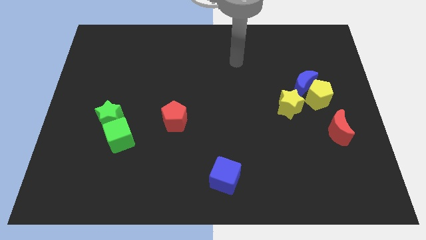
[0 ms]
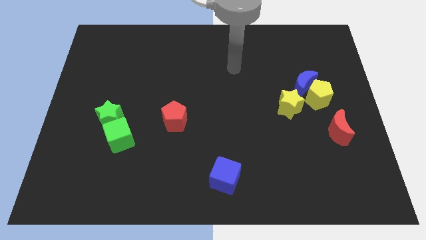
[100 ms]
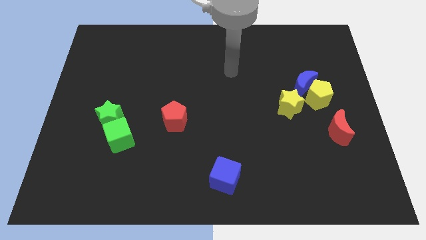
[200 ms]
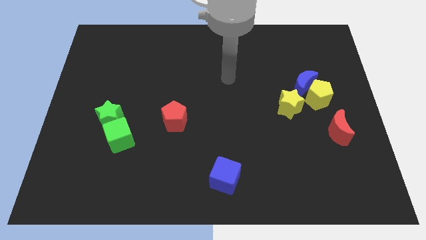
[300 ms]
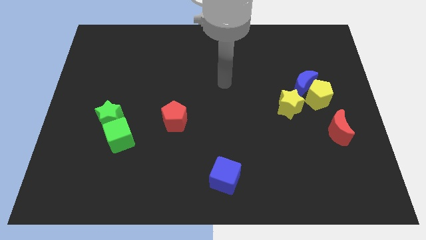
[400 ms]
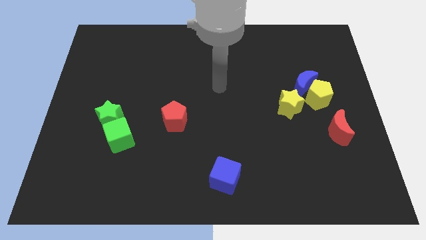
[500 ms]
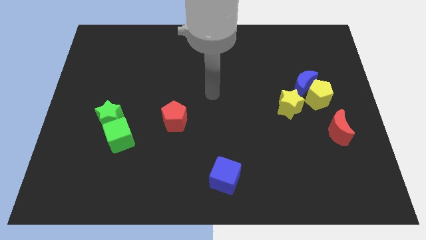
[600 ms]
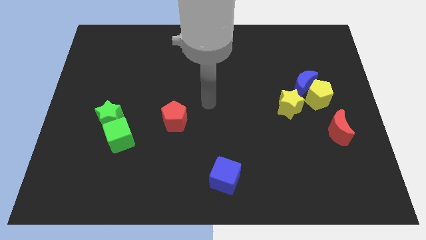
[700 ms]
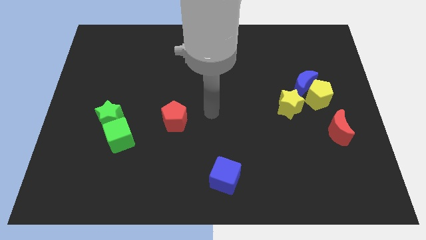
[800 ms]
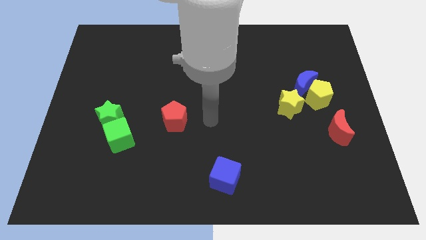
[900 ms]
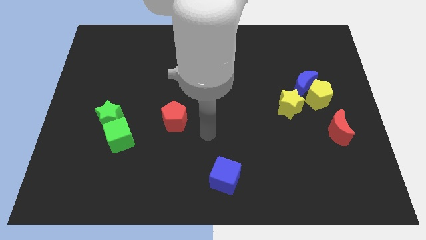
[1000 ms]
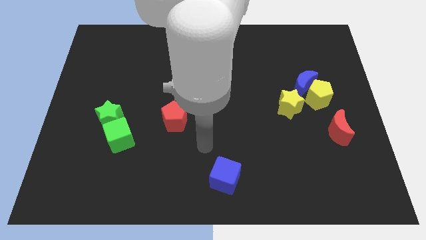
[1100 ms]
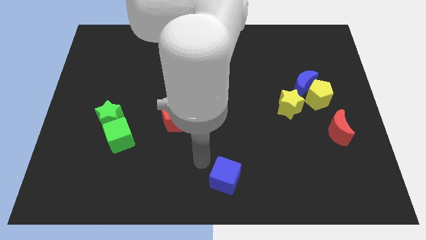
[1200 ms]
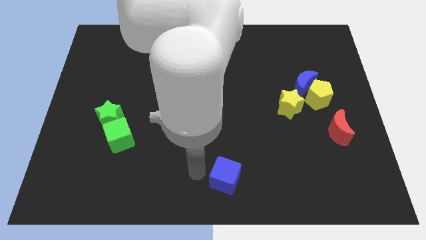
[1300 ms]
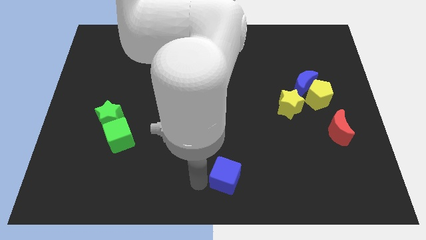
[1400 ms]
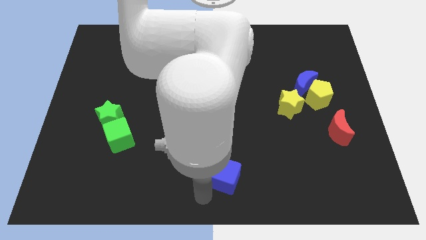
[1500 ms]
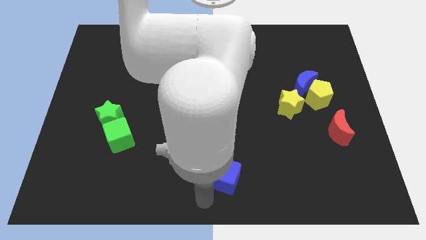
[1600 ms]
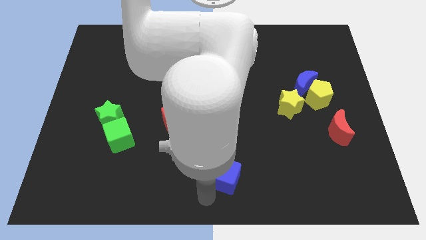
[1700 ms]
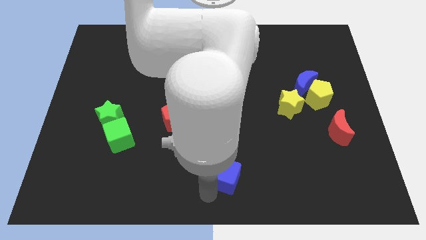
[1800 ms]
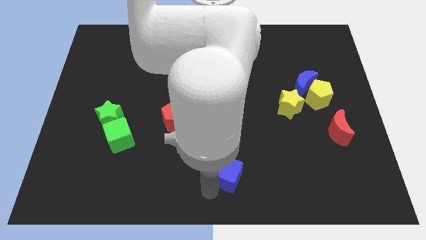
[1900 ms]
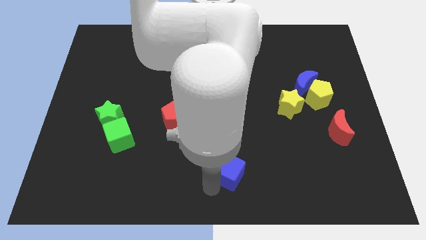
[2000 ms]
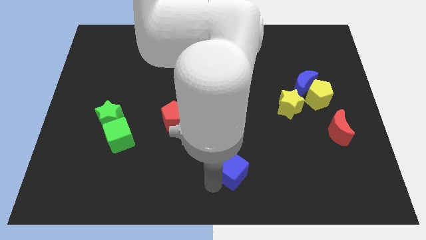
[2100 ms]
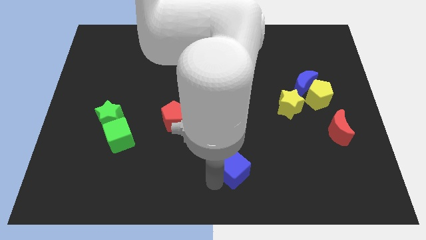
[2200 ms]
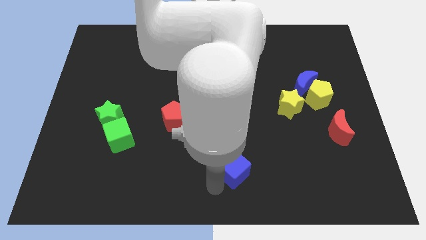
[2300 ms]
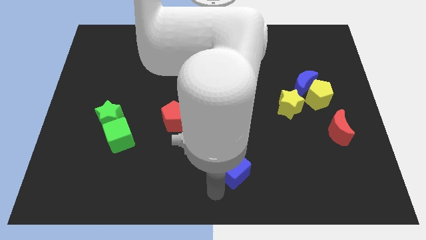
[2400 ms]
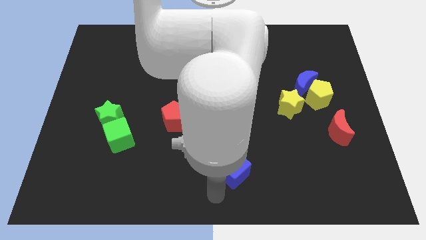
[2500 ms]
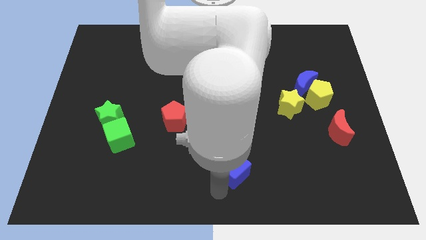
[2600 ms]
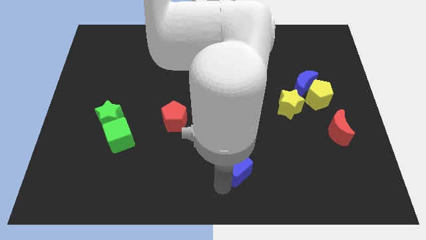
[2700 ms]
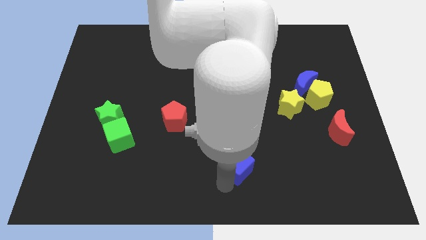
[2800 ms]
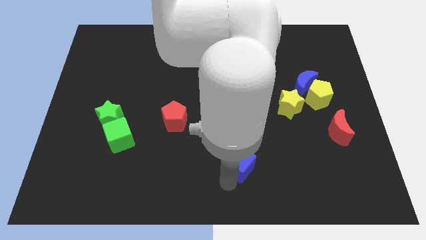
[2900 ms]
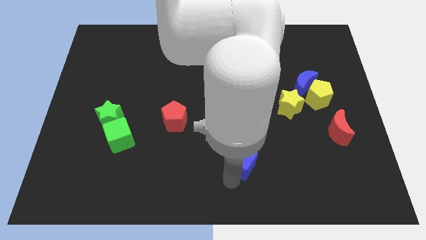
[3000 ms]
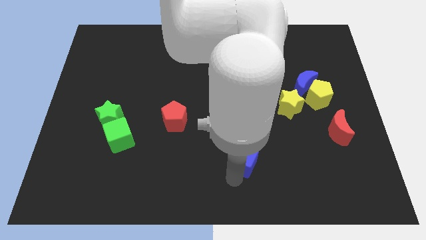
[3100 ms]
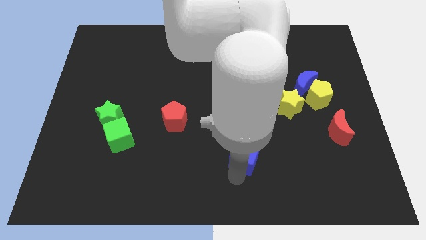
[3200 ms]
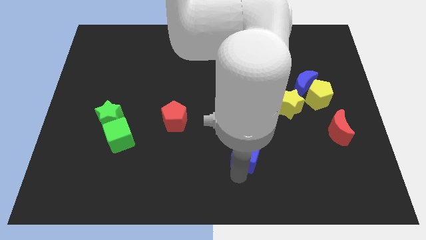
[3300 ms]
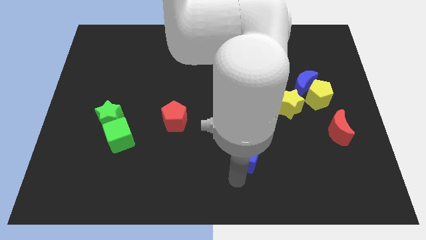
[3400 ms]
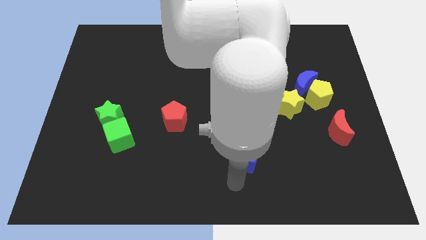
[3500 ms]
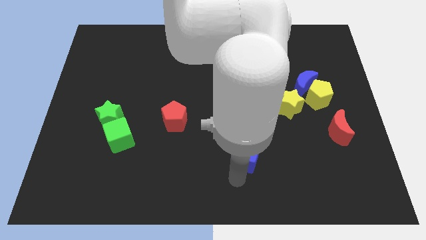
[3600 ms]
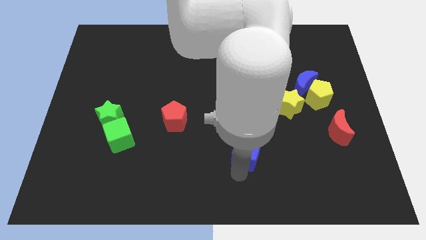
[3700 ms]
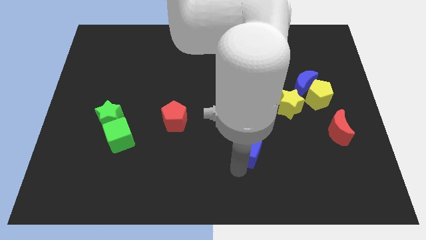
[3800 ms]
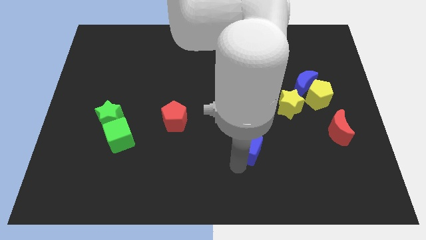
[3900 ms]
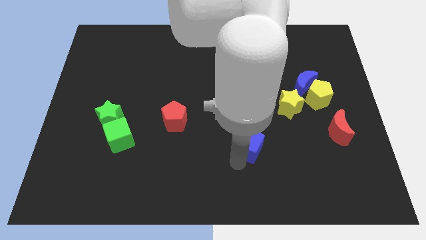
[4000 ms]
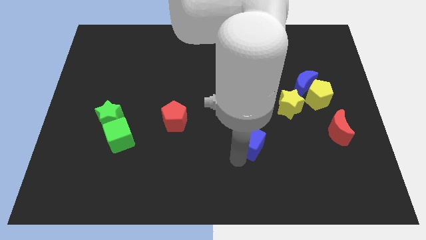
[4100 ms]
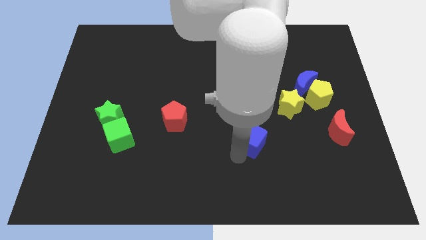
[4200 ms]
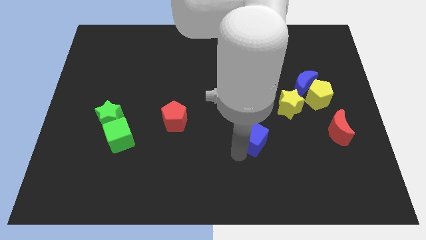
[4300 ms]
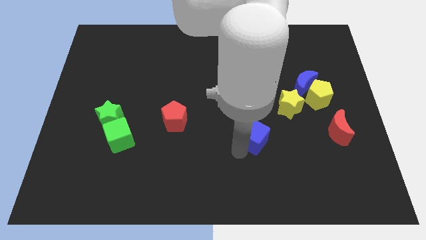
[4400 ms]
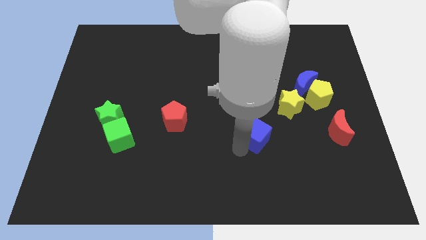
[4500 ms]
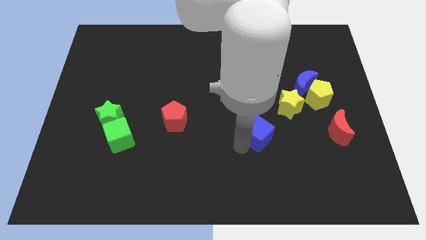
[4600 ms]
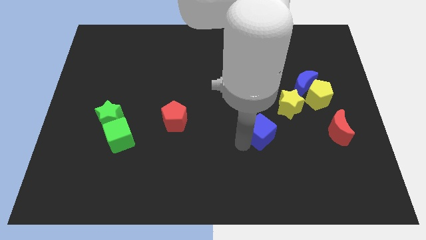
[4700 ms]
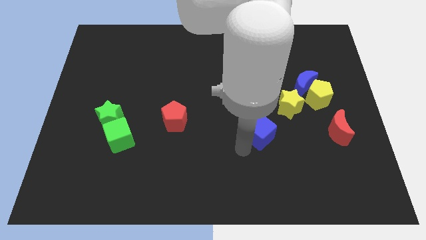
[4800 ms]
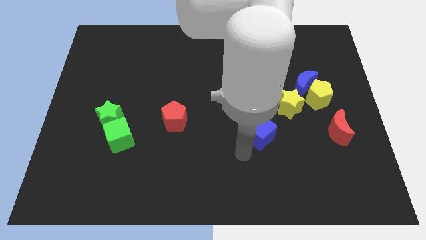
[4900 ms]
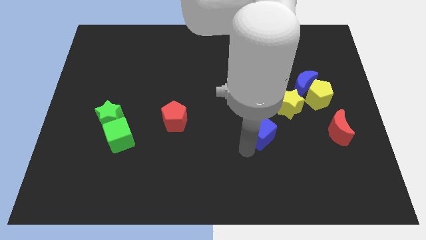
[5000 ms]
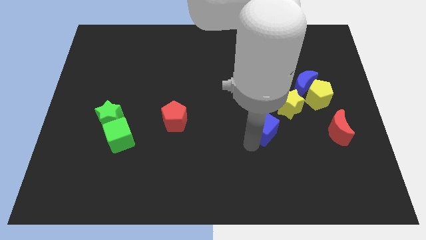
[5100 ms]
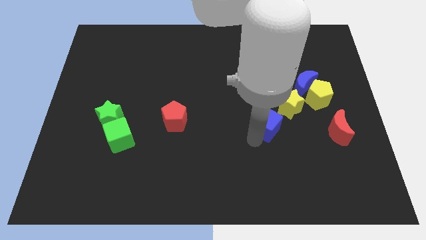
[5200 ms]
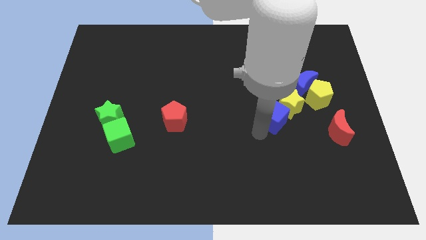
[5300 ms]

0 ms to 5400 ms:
put the blue cube towards the yellow star

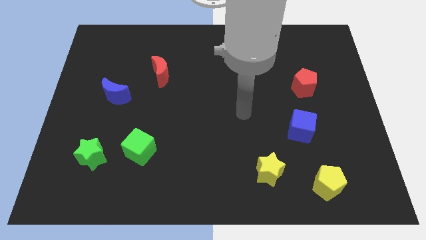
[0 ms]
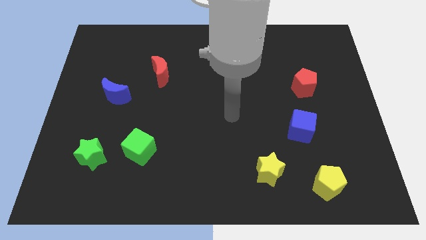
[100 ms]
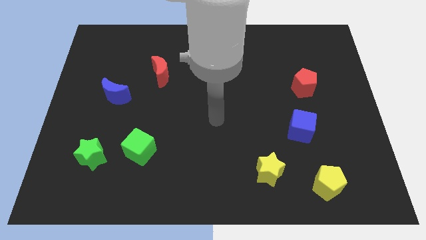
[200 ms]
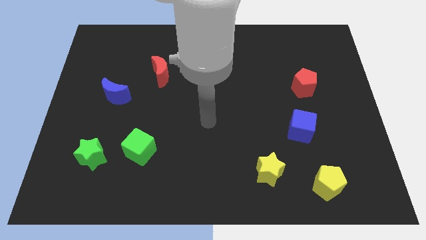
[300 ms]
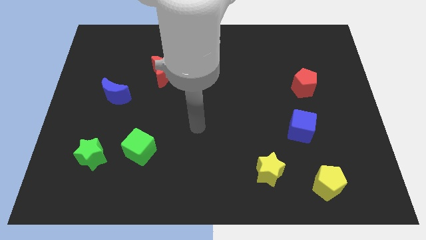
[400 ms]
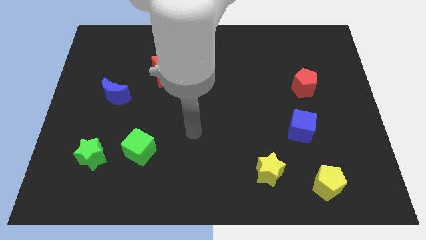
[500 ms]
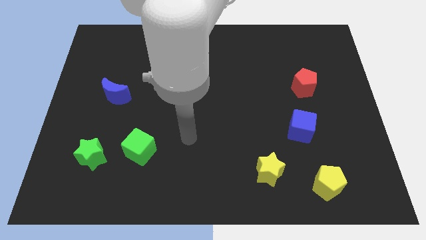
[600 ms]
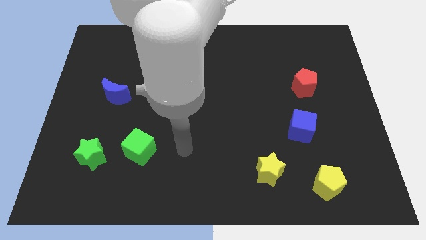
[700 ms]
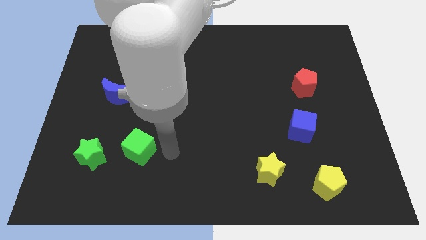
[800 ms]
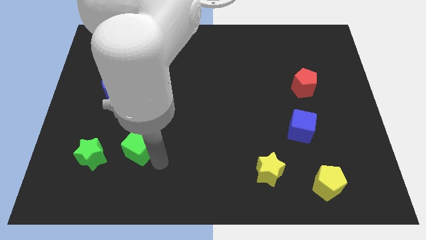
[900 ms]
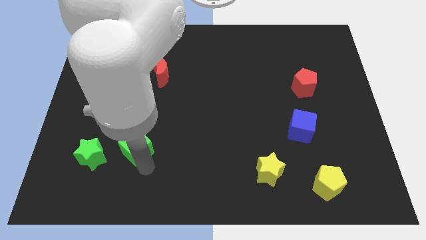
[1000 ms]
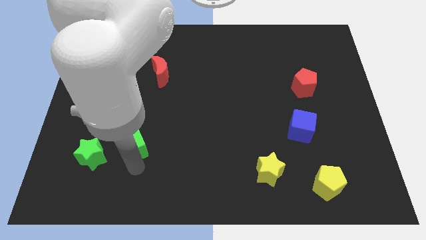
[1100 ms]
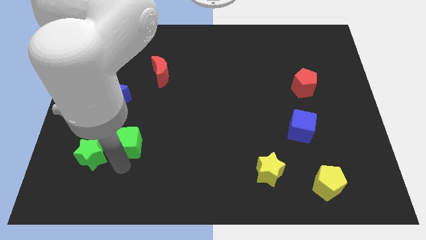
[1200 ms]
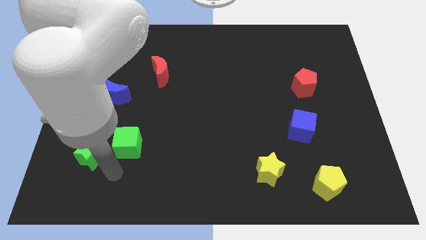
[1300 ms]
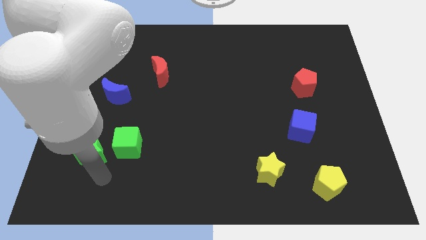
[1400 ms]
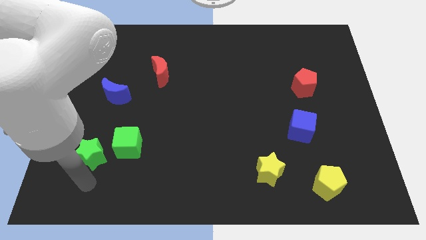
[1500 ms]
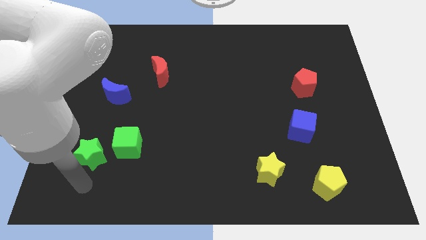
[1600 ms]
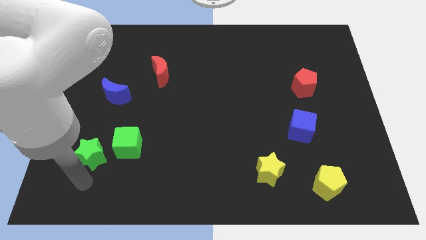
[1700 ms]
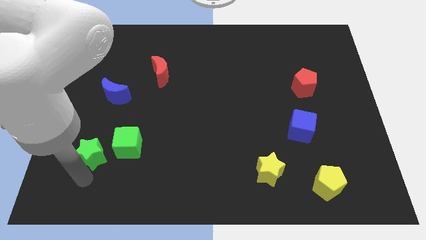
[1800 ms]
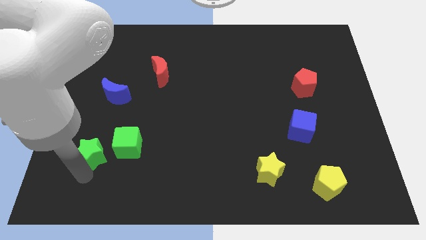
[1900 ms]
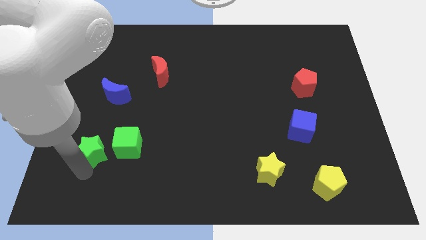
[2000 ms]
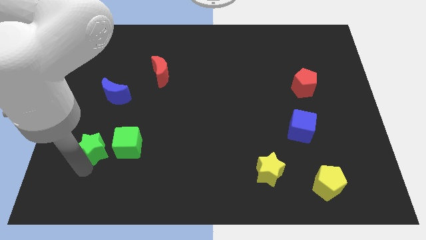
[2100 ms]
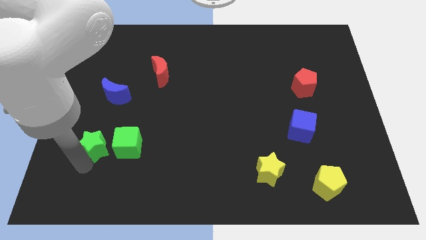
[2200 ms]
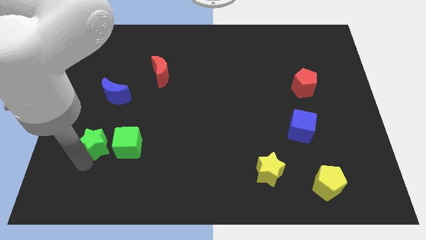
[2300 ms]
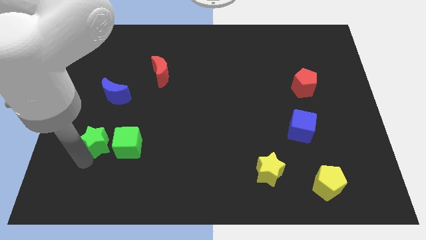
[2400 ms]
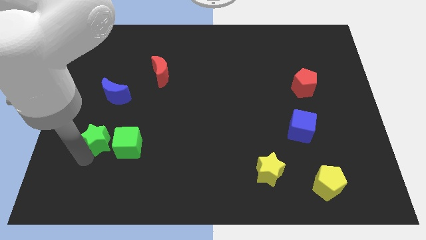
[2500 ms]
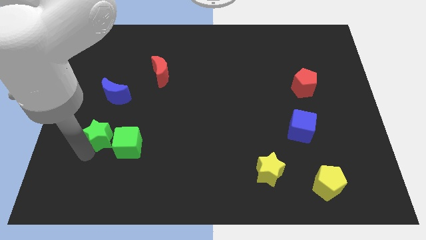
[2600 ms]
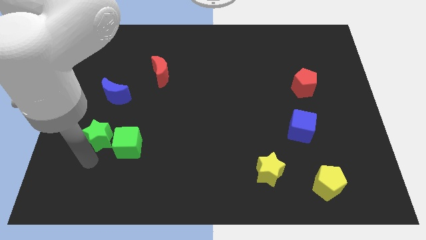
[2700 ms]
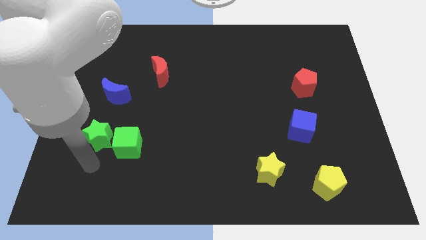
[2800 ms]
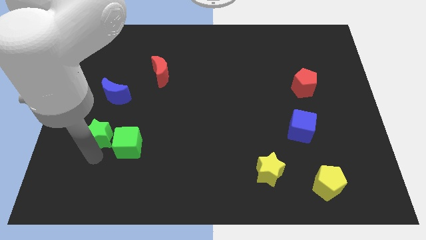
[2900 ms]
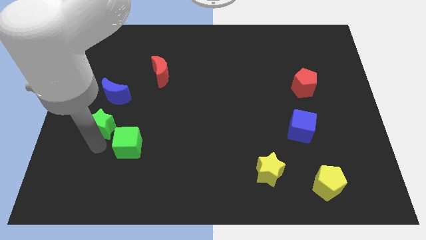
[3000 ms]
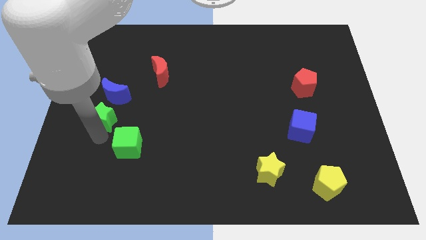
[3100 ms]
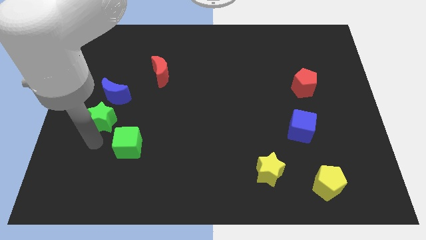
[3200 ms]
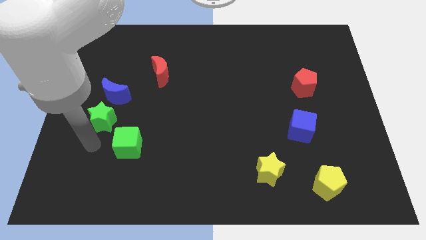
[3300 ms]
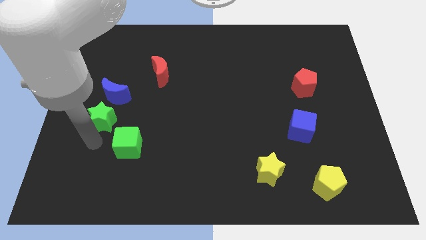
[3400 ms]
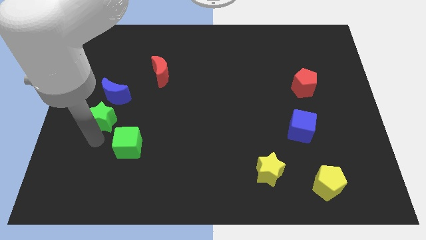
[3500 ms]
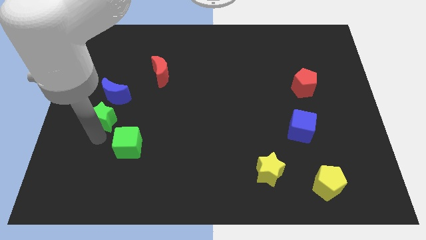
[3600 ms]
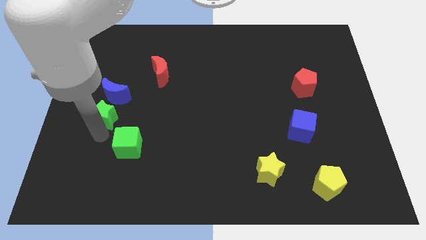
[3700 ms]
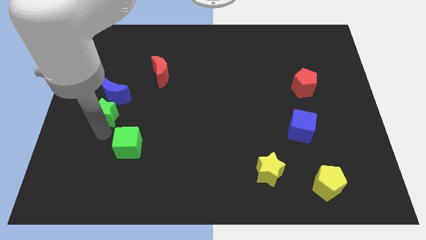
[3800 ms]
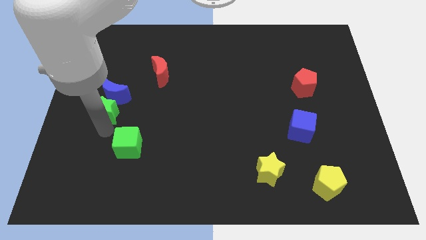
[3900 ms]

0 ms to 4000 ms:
push the green star towards the blue moon
